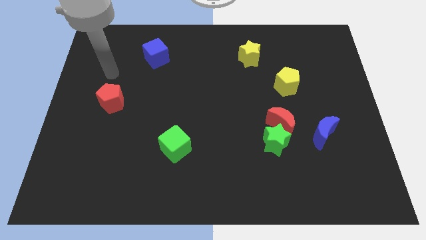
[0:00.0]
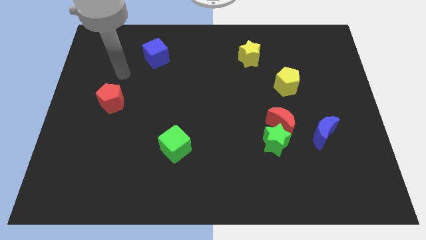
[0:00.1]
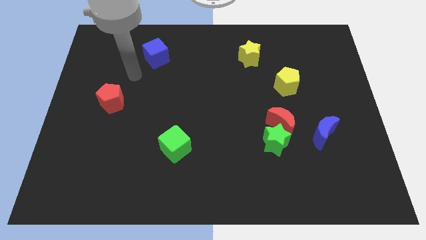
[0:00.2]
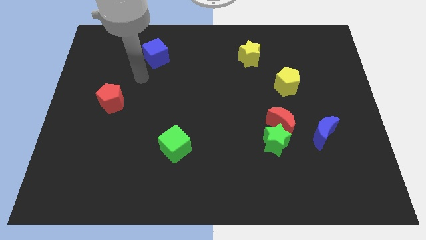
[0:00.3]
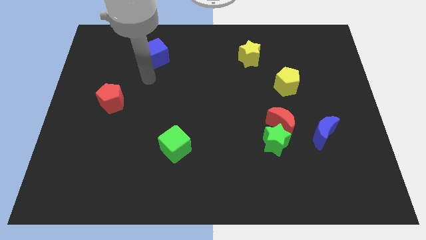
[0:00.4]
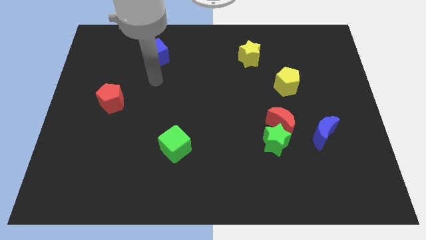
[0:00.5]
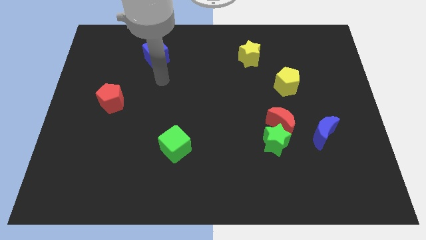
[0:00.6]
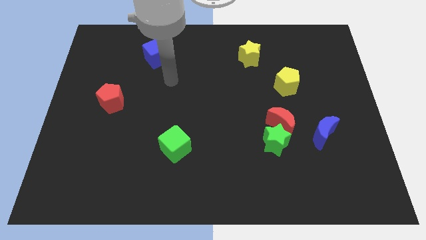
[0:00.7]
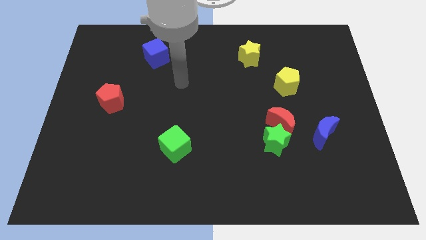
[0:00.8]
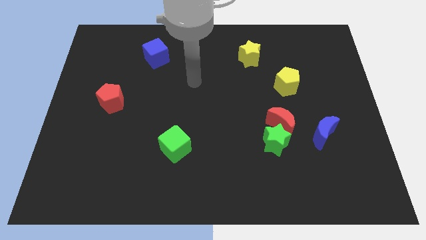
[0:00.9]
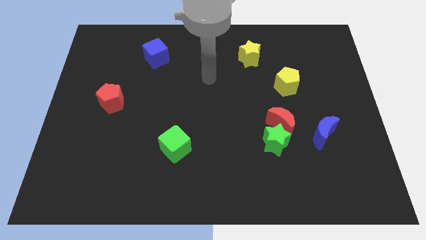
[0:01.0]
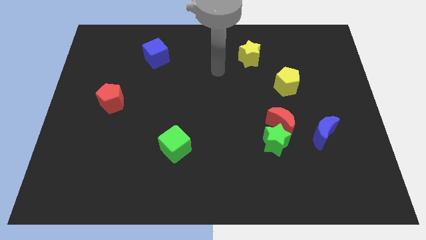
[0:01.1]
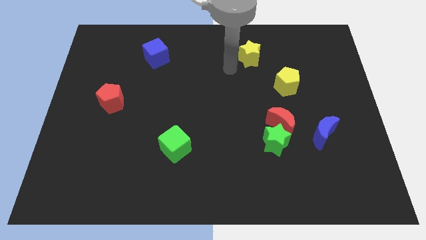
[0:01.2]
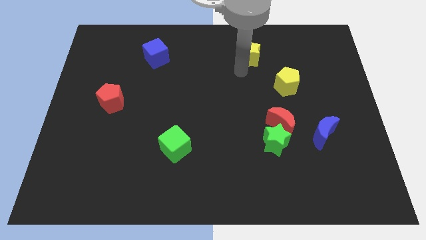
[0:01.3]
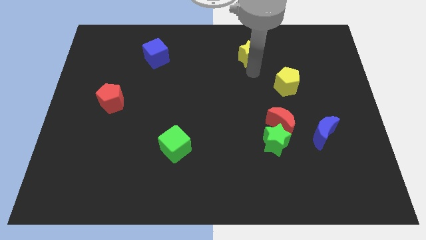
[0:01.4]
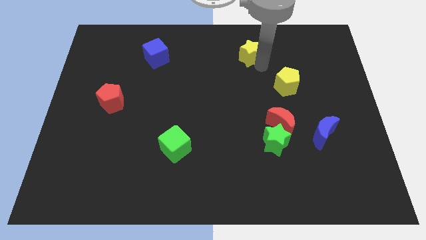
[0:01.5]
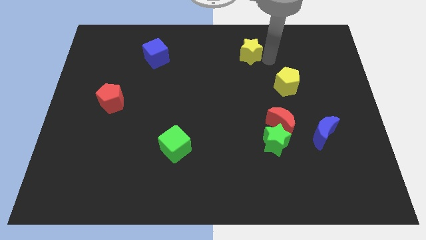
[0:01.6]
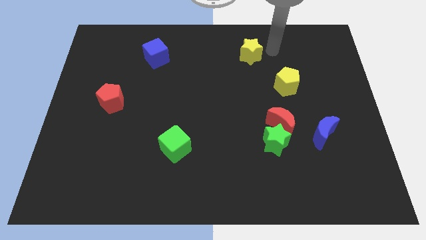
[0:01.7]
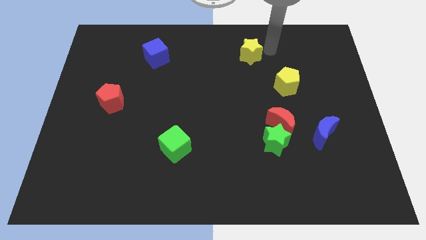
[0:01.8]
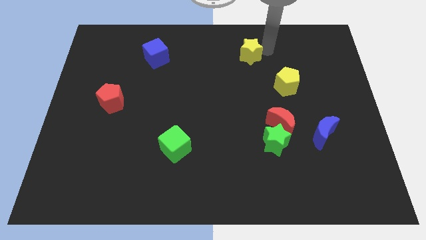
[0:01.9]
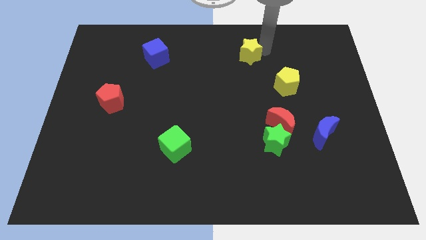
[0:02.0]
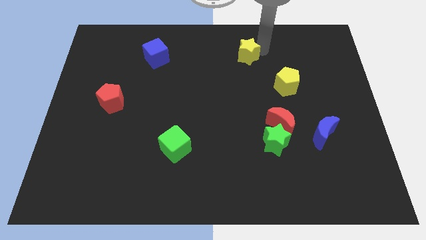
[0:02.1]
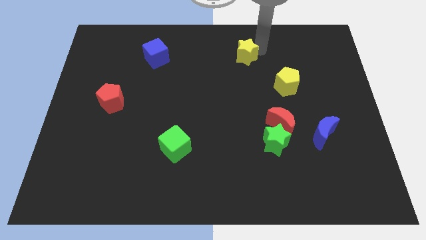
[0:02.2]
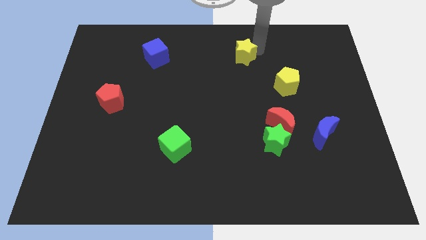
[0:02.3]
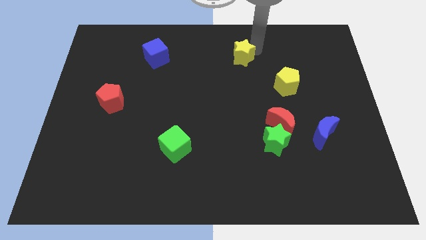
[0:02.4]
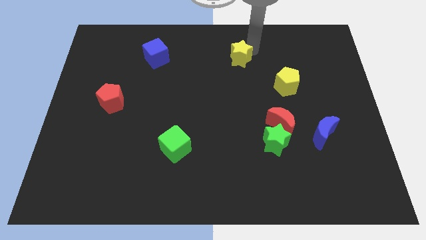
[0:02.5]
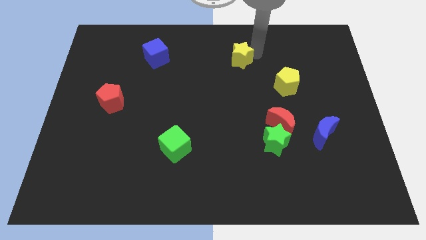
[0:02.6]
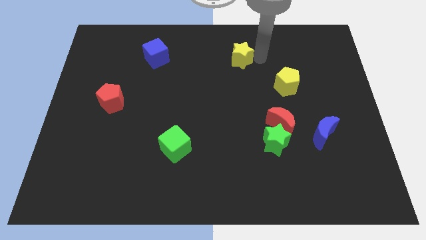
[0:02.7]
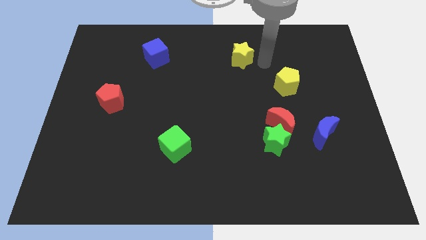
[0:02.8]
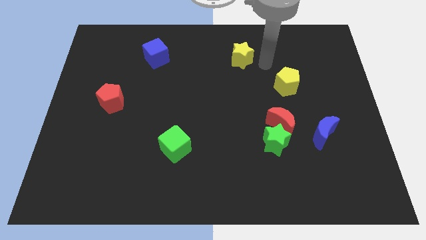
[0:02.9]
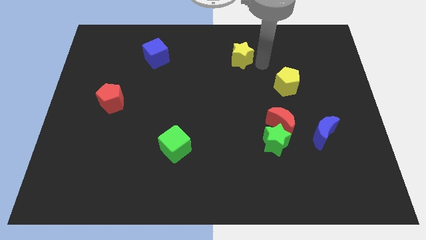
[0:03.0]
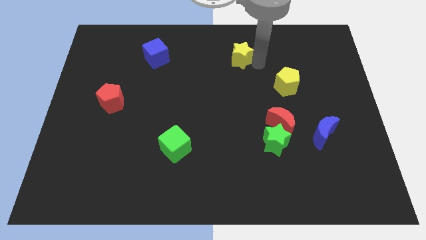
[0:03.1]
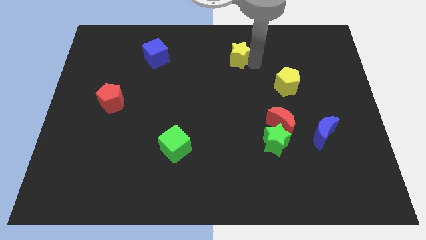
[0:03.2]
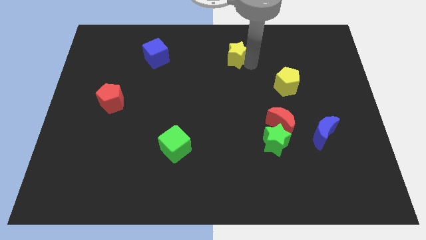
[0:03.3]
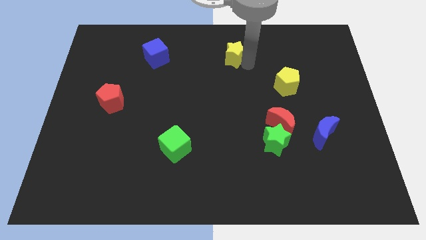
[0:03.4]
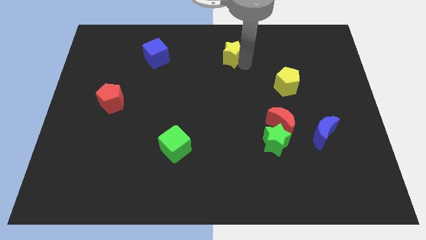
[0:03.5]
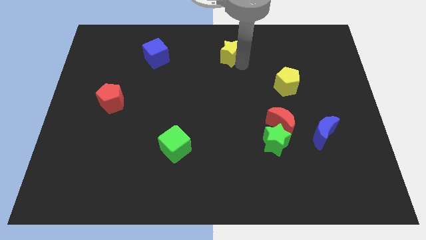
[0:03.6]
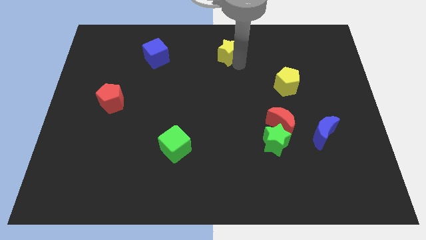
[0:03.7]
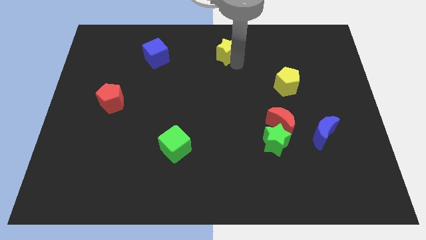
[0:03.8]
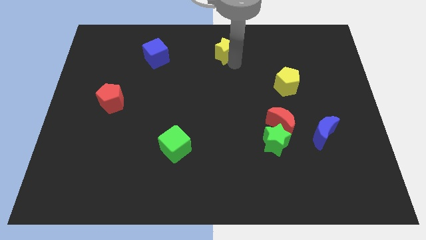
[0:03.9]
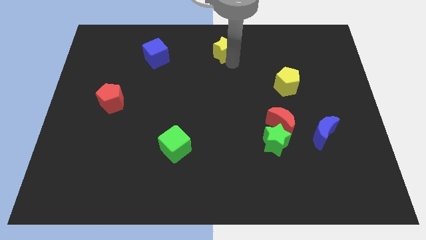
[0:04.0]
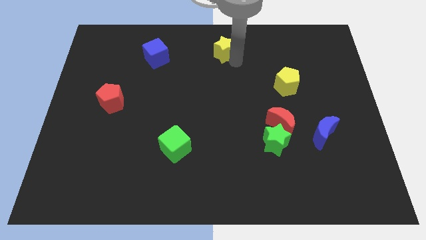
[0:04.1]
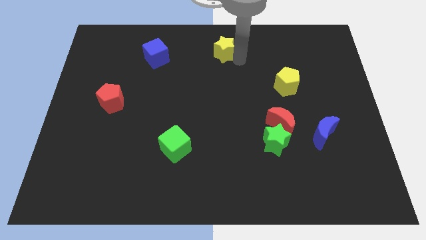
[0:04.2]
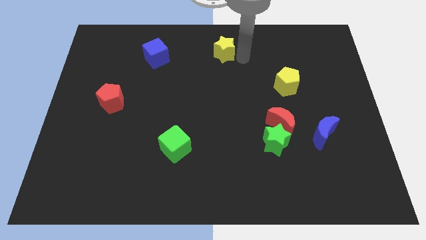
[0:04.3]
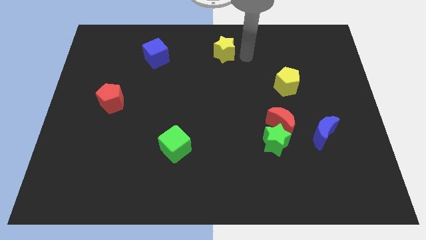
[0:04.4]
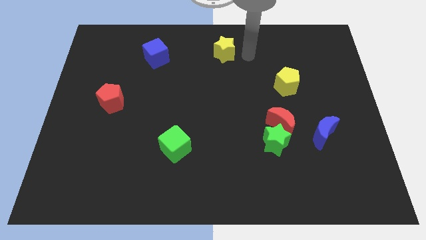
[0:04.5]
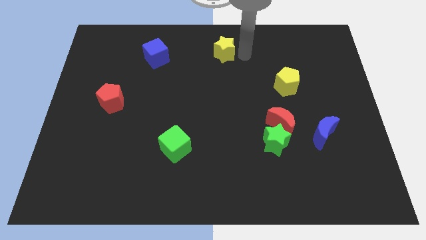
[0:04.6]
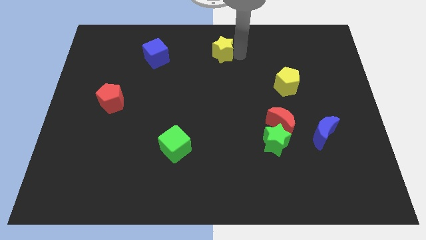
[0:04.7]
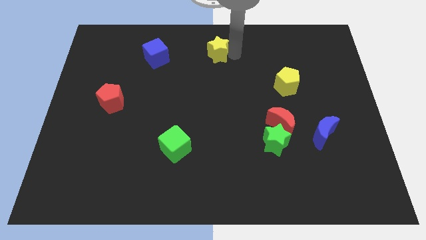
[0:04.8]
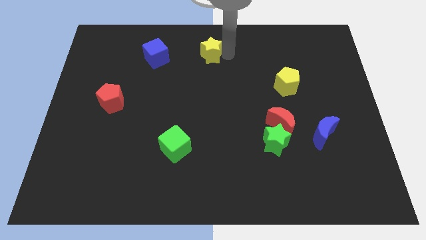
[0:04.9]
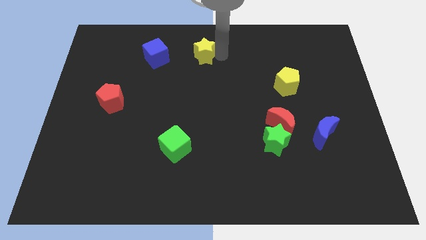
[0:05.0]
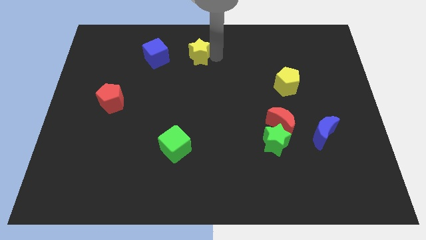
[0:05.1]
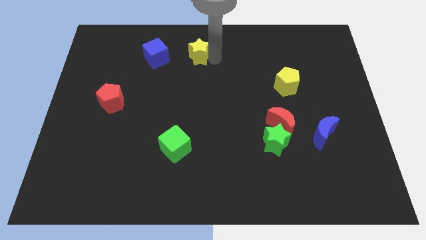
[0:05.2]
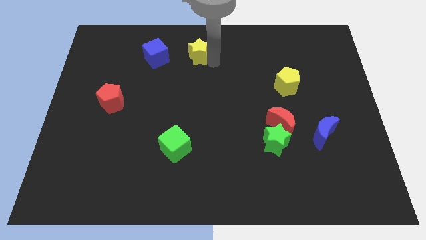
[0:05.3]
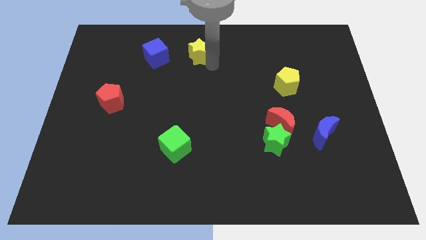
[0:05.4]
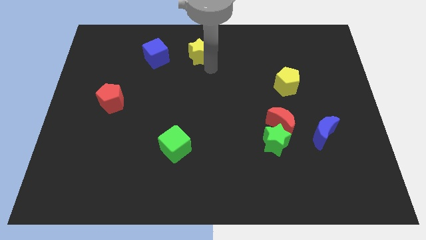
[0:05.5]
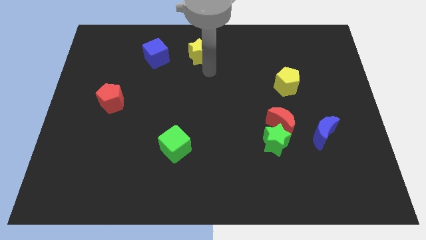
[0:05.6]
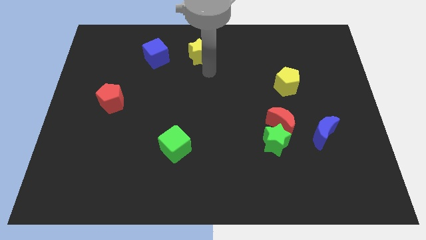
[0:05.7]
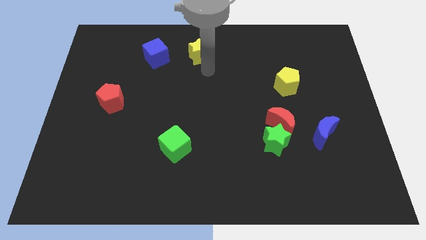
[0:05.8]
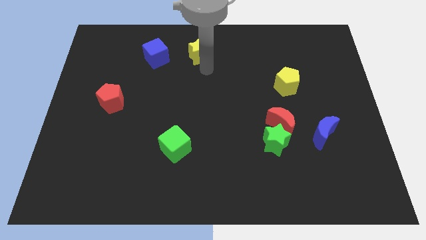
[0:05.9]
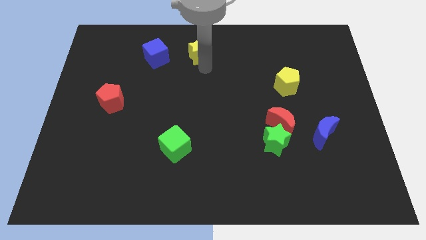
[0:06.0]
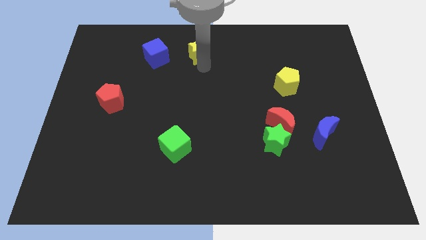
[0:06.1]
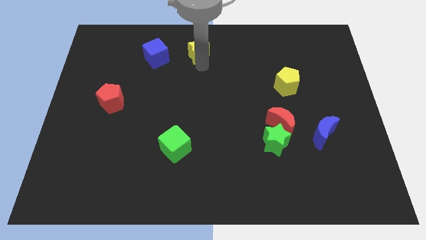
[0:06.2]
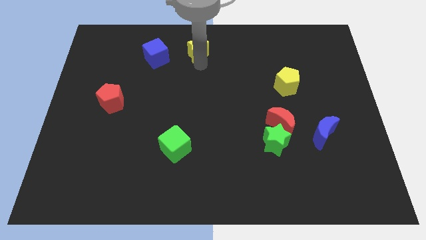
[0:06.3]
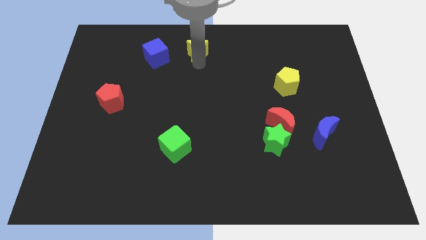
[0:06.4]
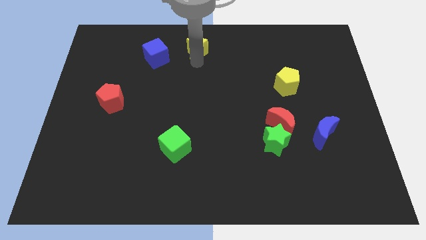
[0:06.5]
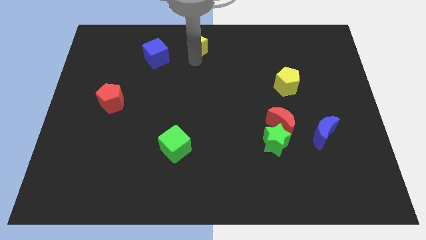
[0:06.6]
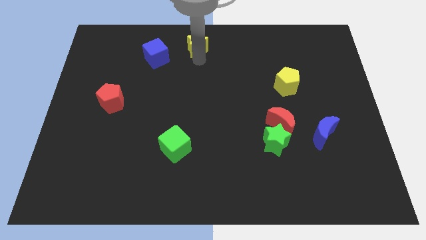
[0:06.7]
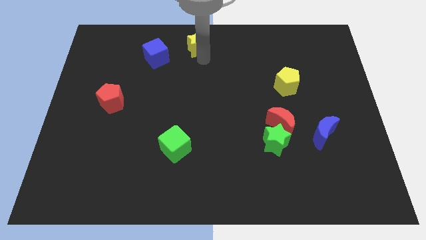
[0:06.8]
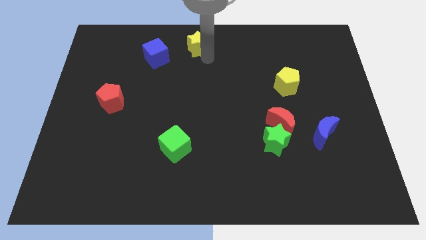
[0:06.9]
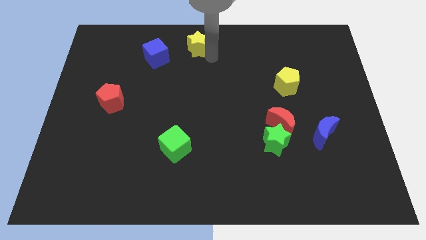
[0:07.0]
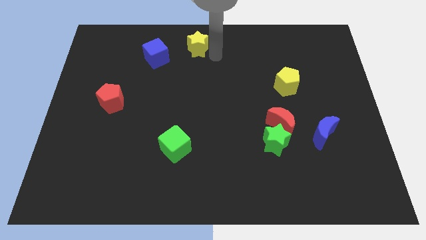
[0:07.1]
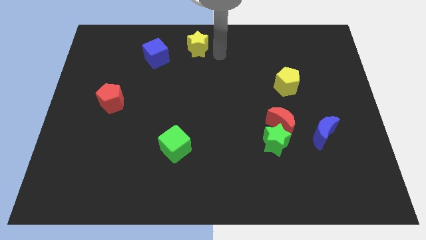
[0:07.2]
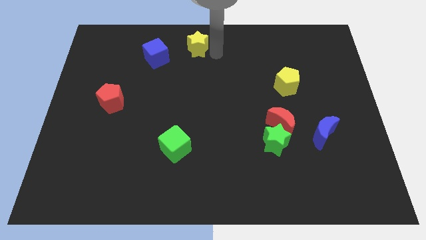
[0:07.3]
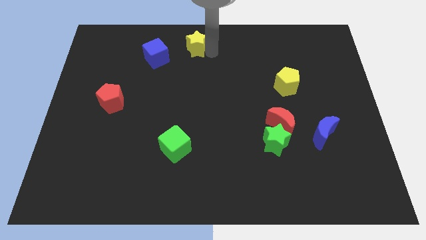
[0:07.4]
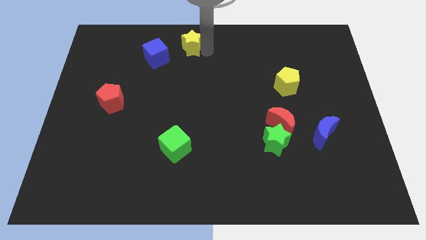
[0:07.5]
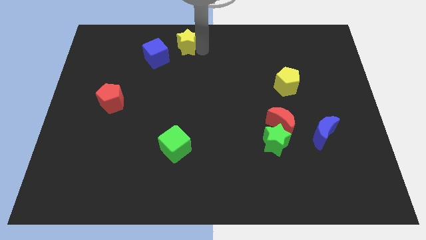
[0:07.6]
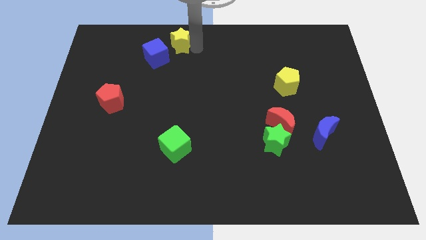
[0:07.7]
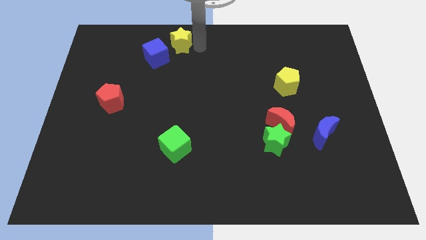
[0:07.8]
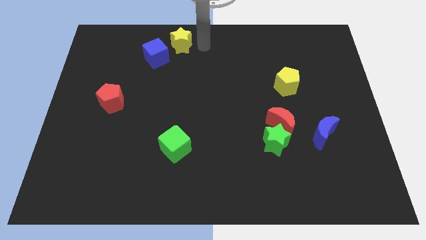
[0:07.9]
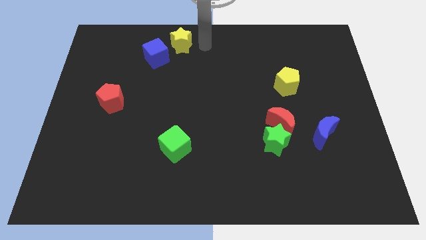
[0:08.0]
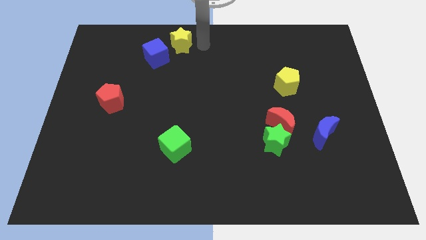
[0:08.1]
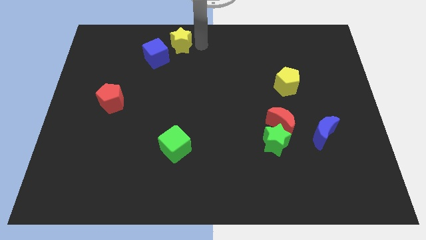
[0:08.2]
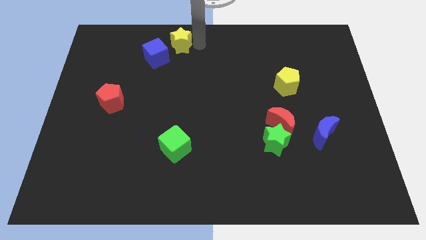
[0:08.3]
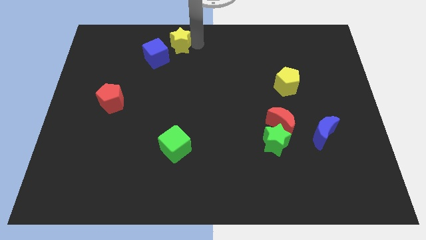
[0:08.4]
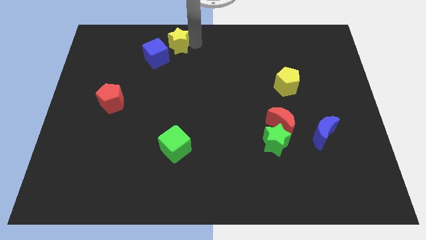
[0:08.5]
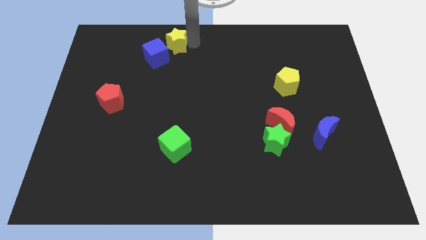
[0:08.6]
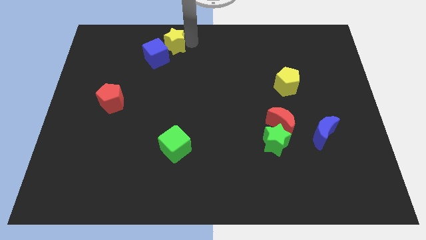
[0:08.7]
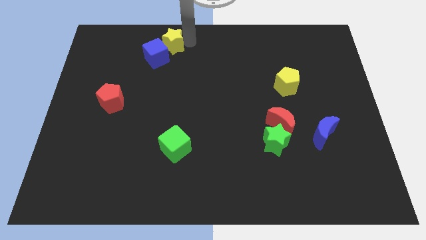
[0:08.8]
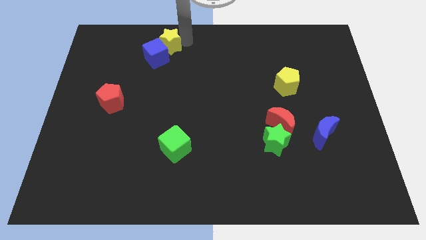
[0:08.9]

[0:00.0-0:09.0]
push the yellow star left
